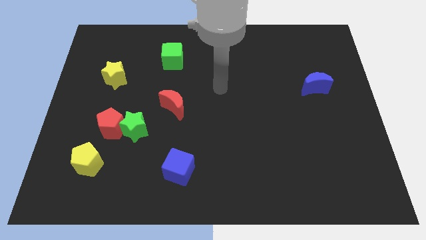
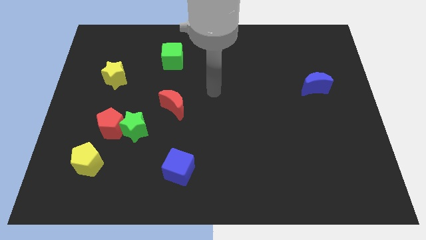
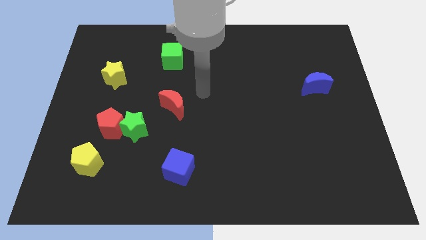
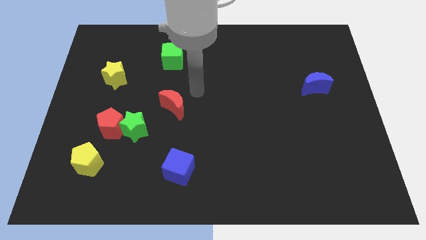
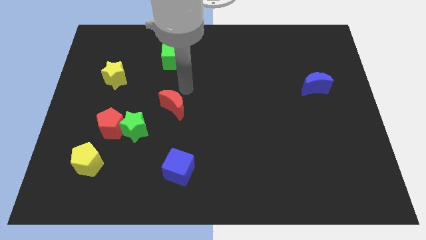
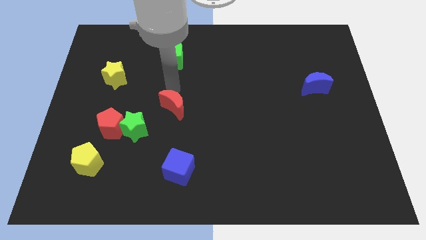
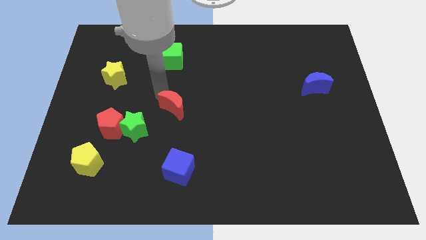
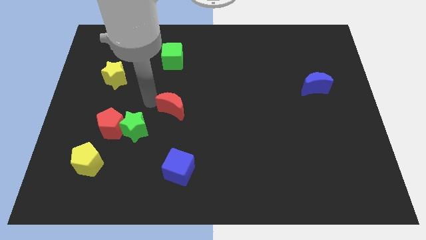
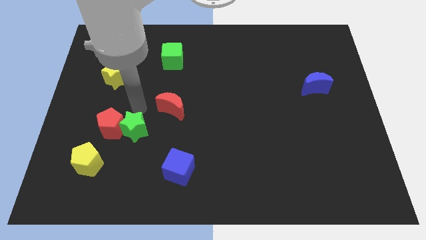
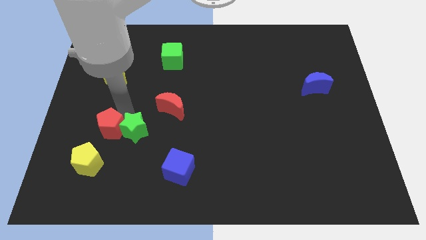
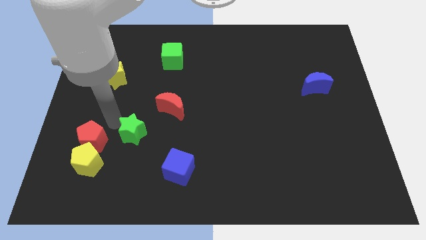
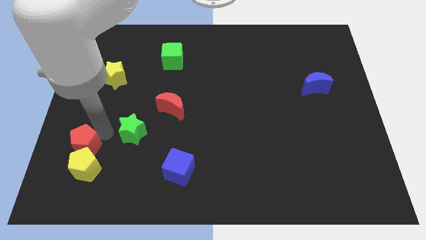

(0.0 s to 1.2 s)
separate the green star from the red pentagon

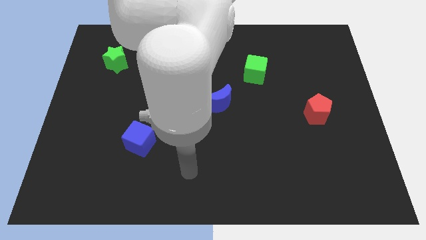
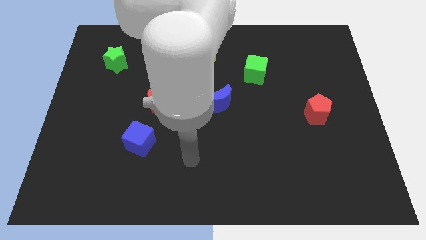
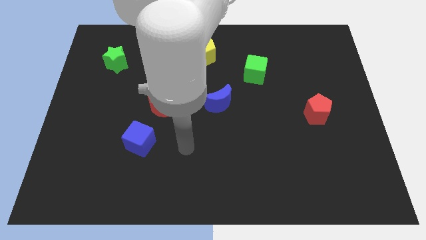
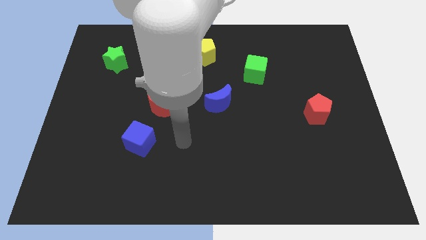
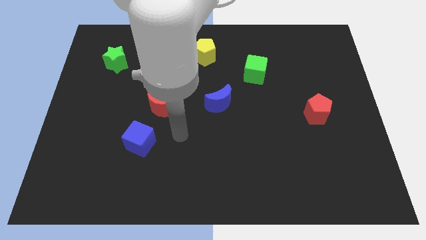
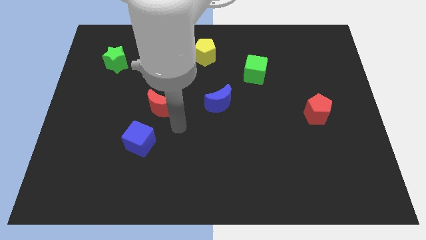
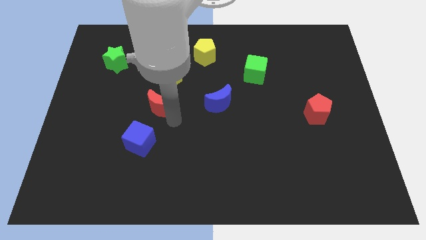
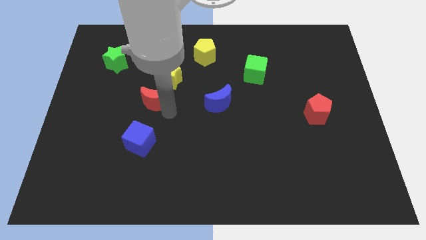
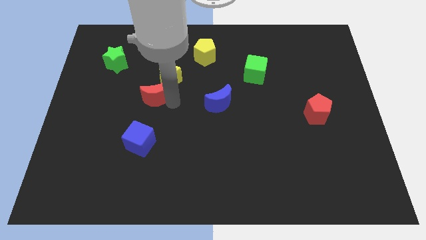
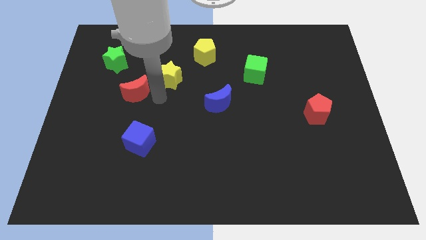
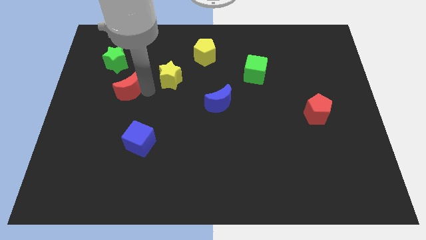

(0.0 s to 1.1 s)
move the yellow star away from the red moon

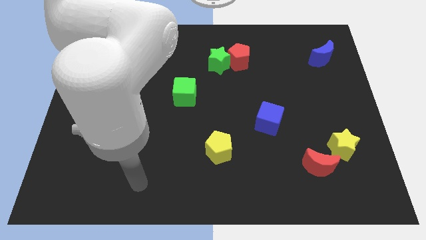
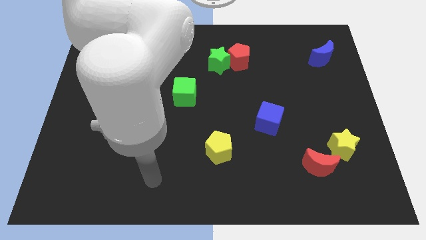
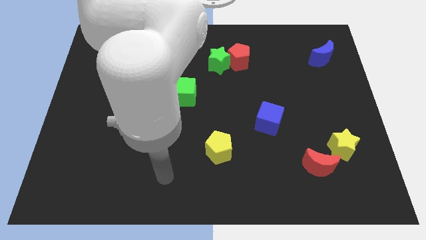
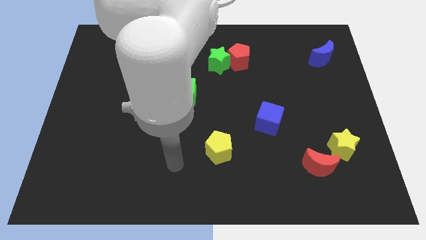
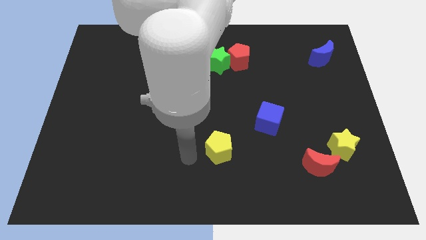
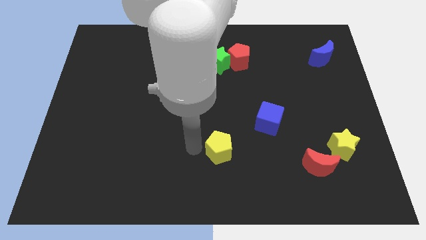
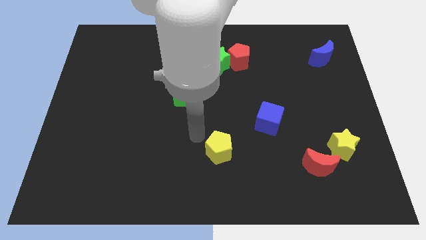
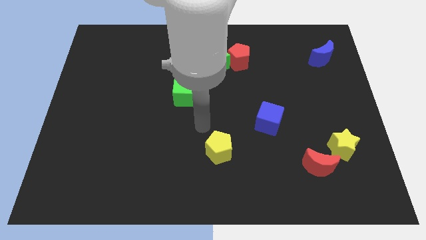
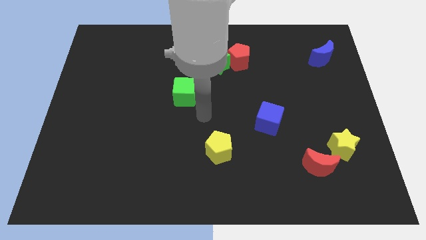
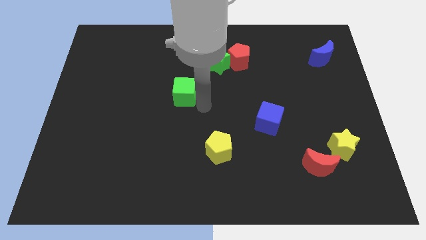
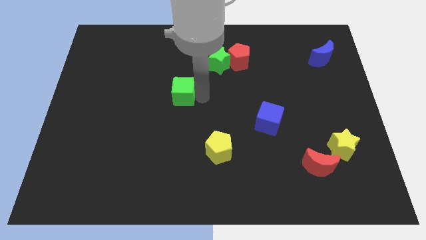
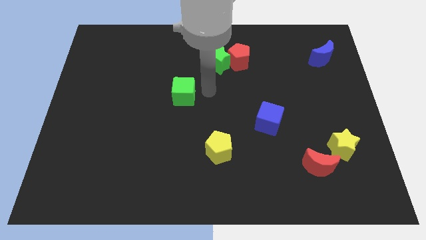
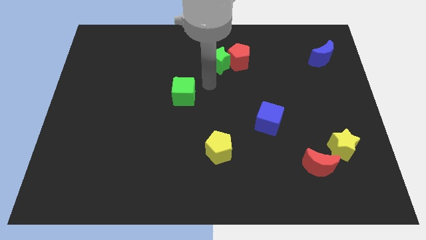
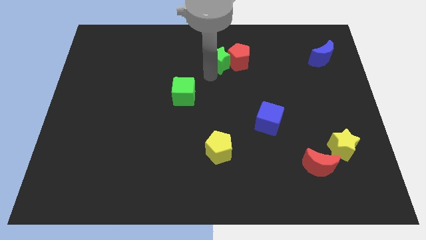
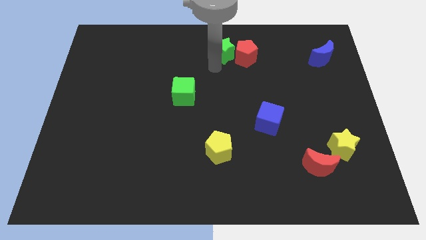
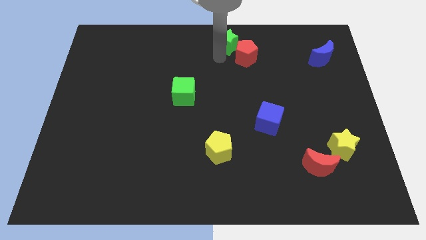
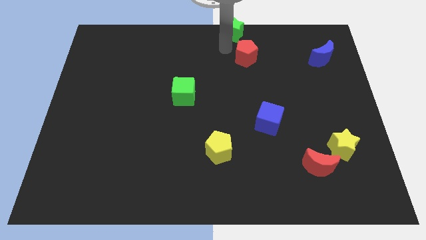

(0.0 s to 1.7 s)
separate the red pentagon from the green star

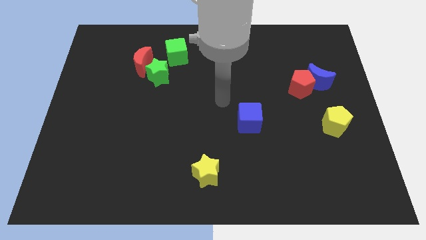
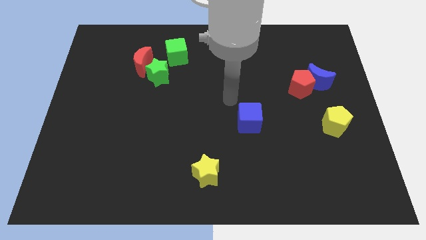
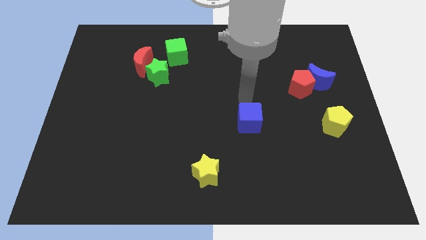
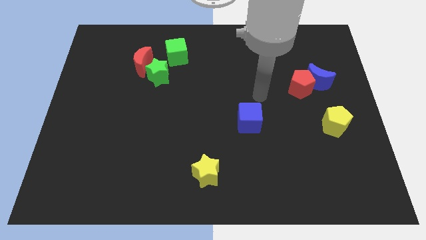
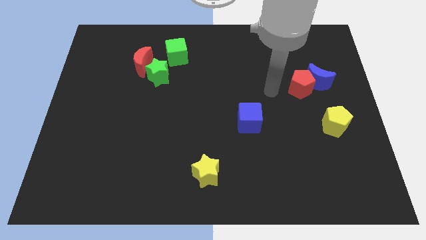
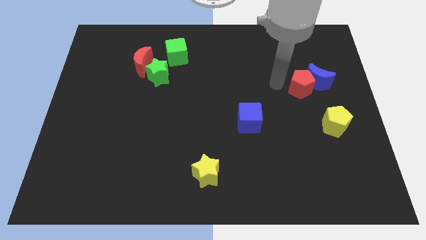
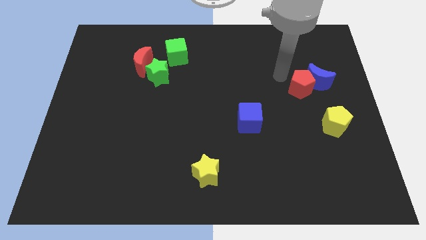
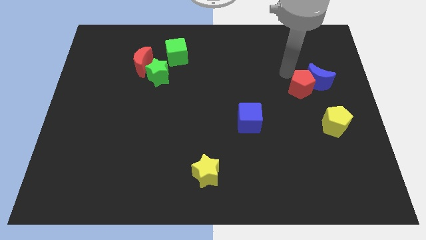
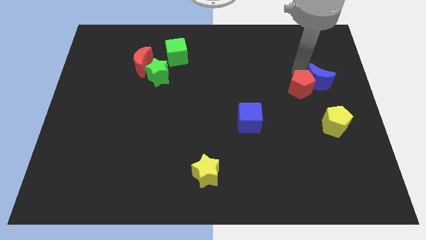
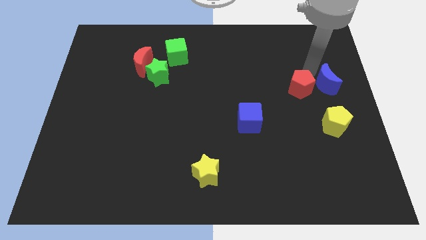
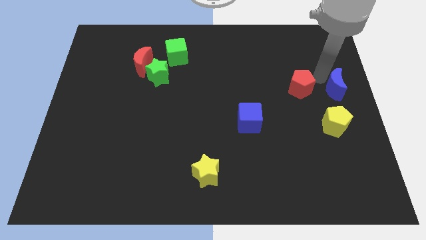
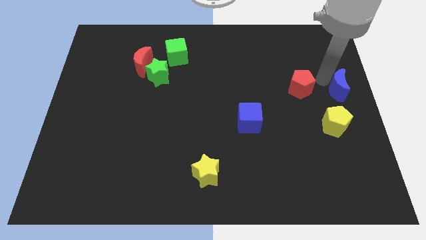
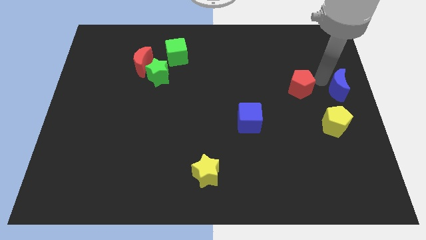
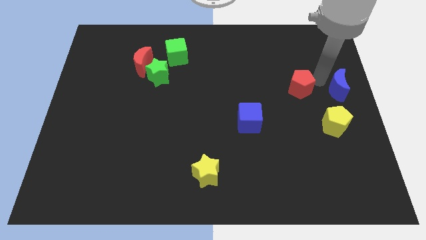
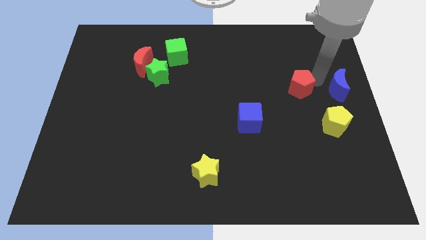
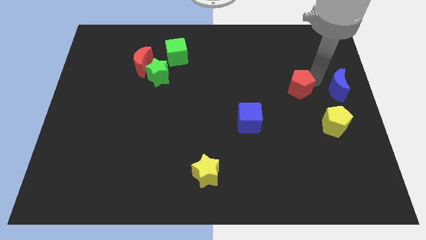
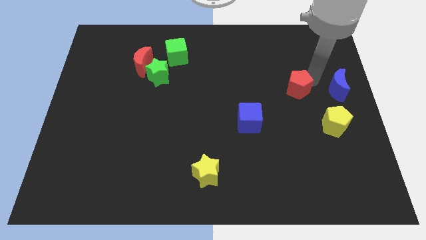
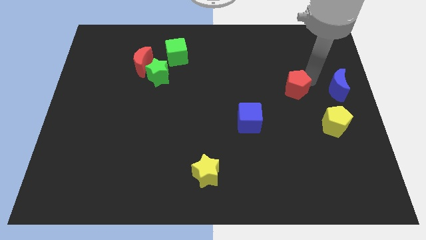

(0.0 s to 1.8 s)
pull the red pentagon apart from the blue moon

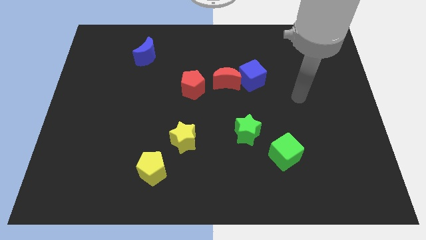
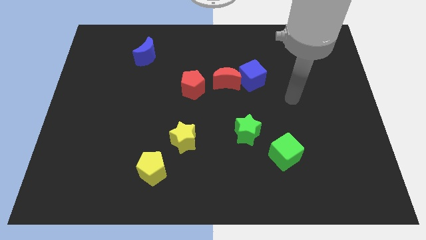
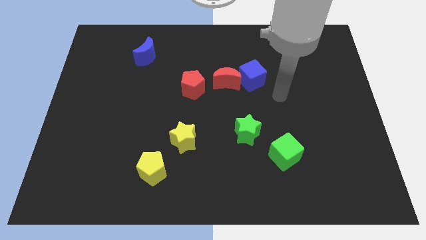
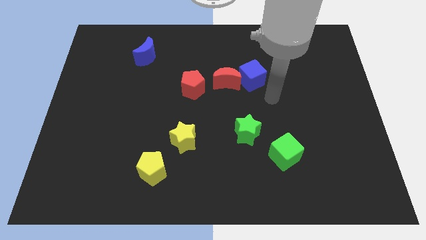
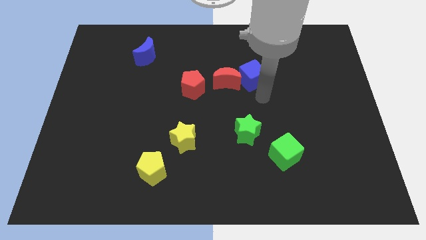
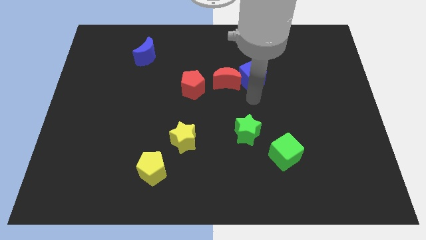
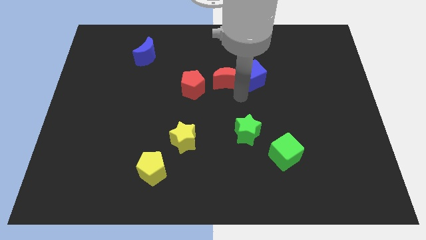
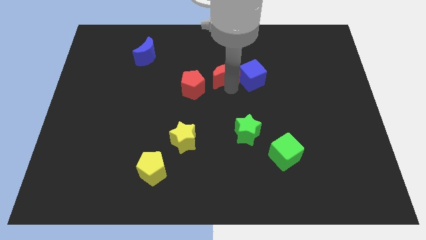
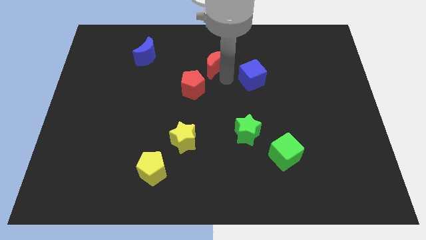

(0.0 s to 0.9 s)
move the blue cube away from the red moon

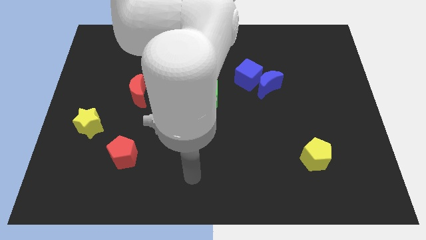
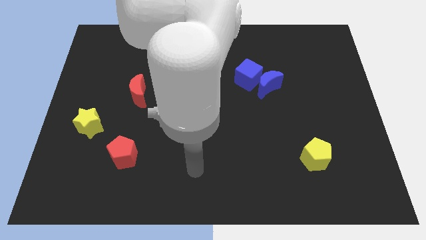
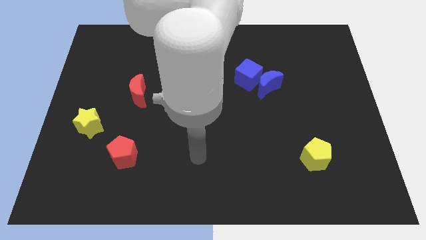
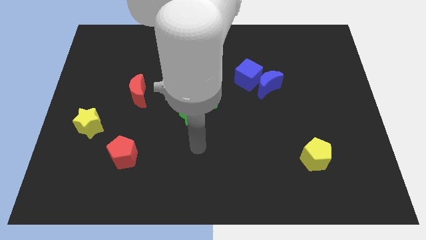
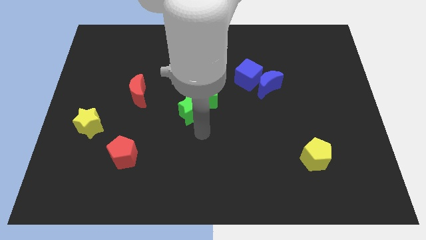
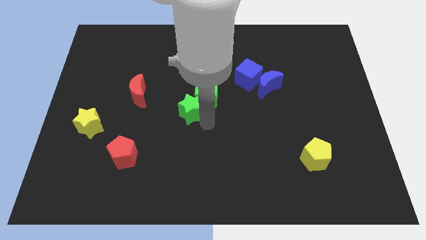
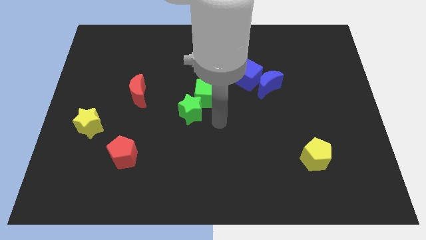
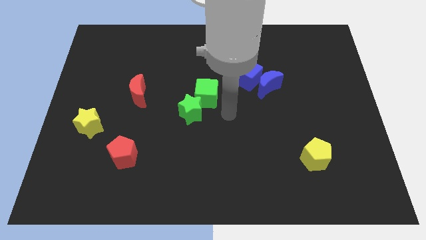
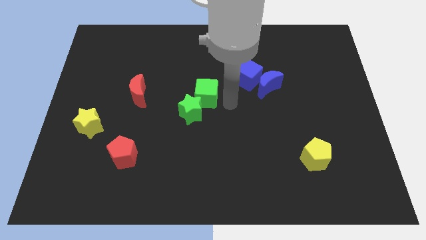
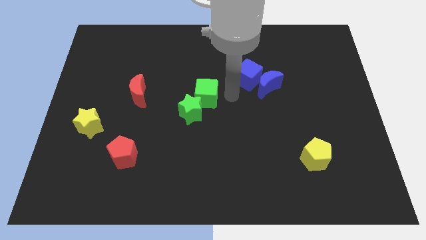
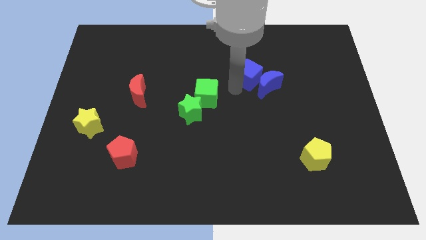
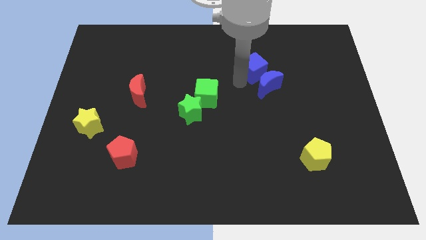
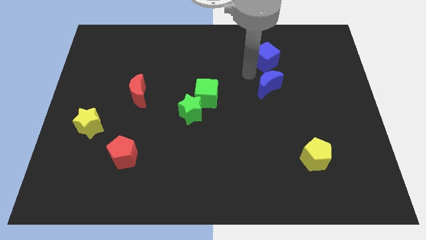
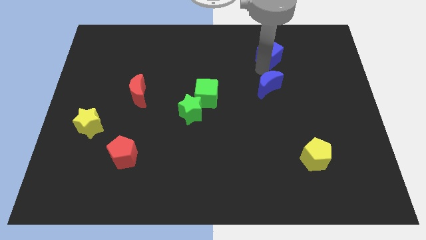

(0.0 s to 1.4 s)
separate the blue moon from the blue cube

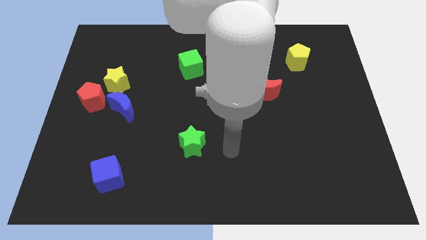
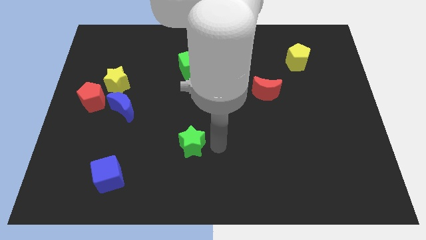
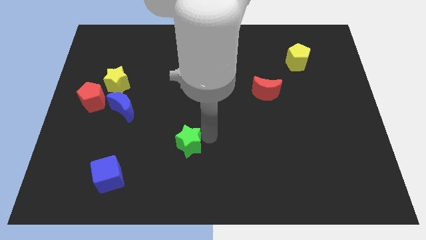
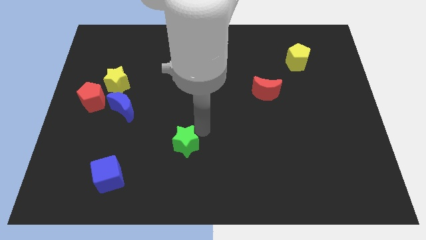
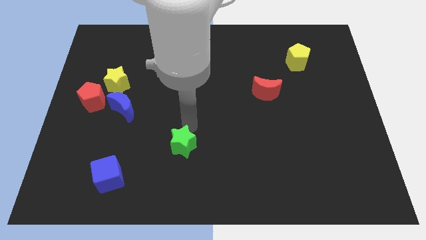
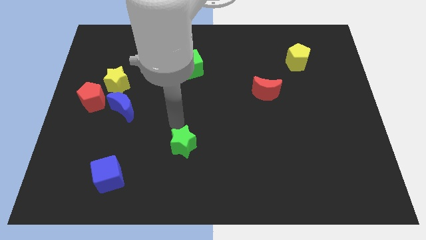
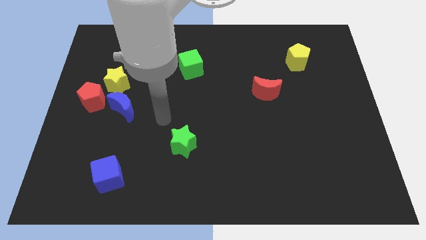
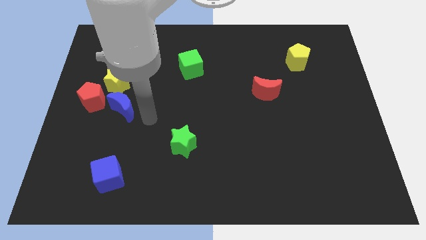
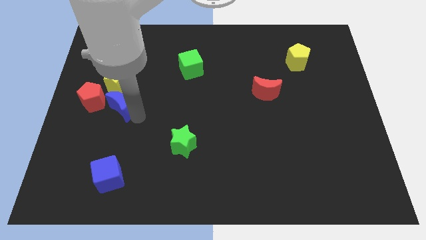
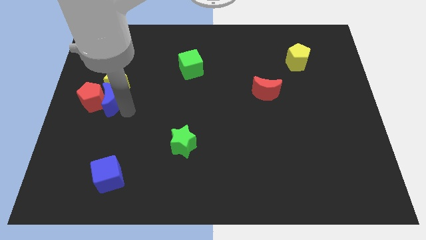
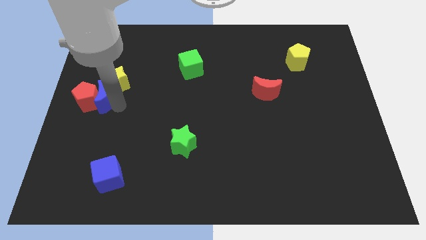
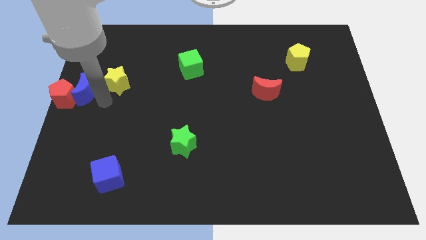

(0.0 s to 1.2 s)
move the yellow star away from the red pentagon and blue moon
